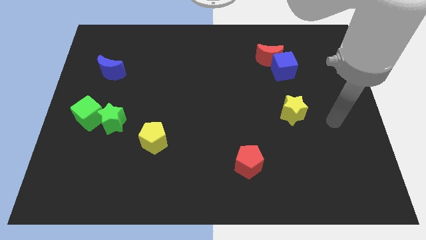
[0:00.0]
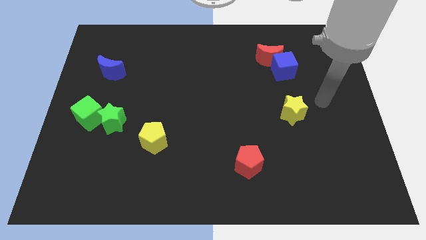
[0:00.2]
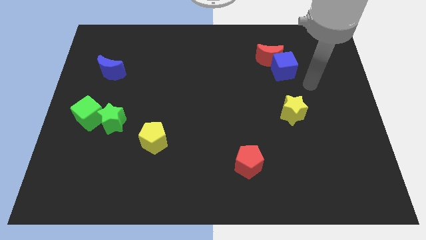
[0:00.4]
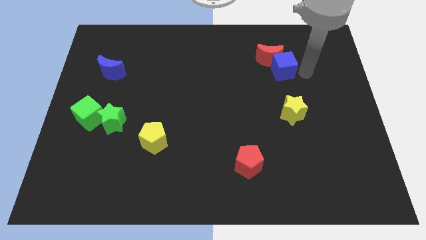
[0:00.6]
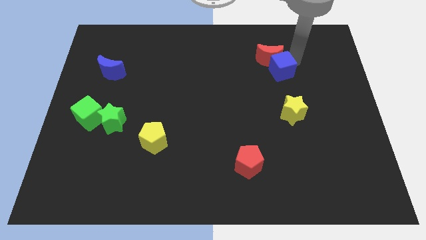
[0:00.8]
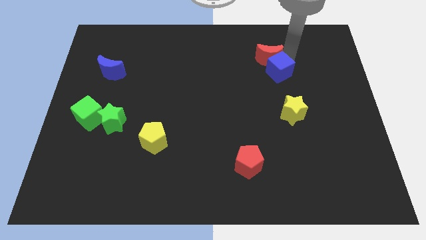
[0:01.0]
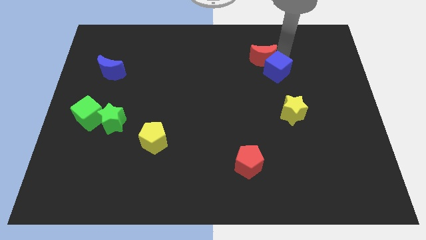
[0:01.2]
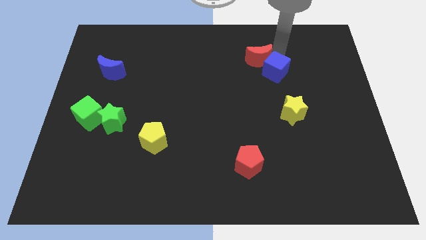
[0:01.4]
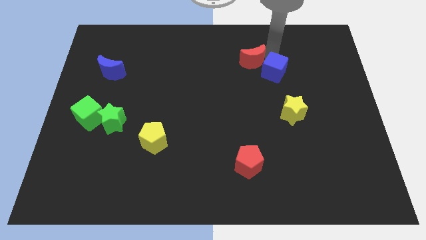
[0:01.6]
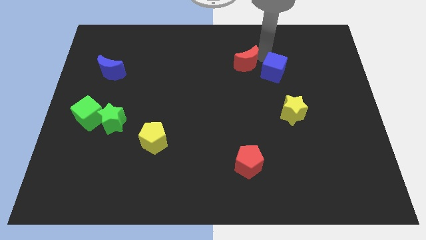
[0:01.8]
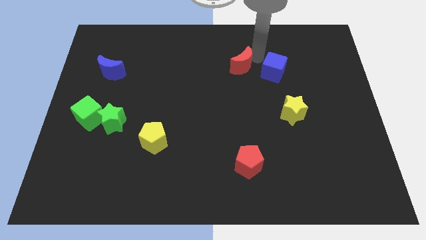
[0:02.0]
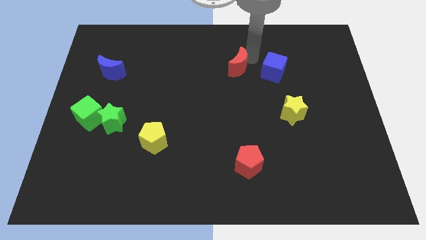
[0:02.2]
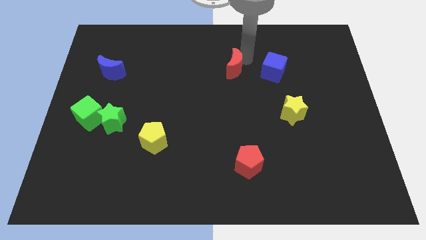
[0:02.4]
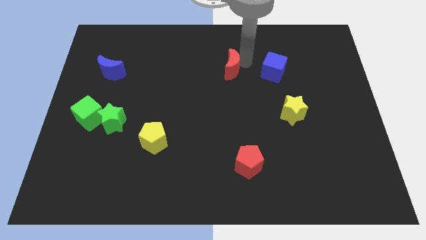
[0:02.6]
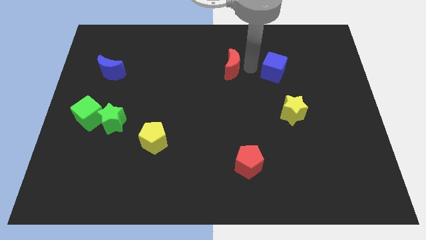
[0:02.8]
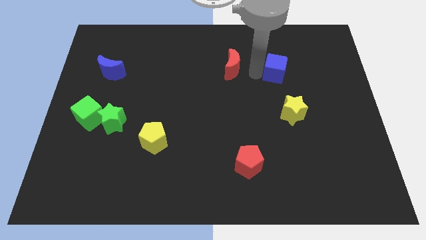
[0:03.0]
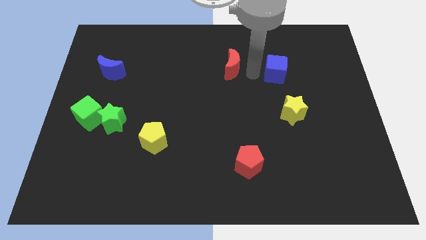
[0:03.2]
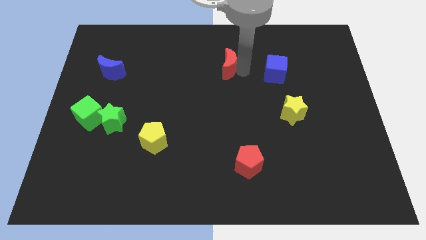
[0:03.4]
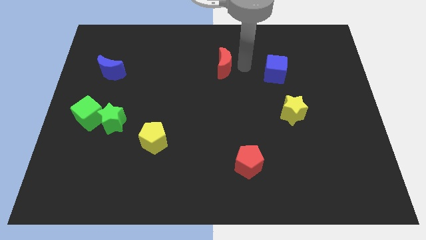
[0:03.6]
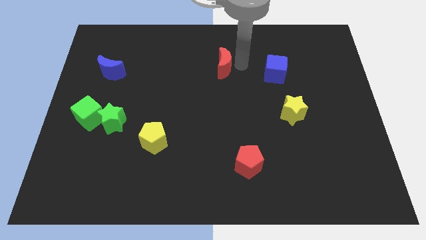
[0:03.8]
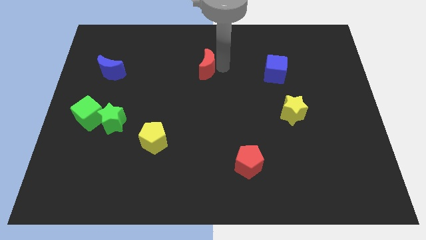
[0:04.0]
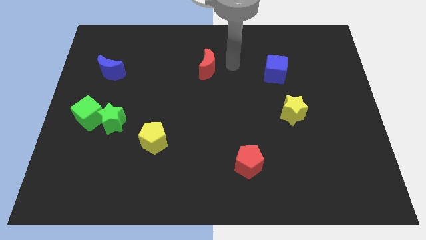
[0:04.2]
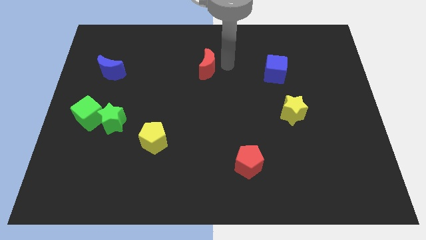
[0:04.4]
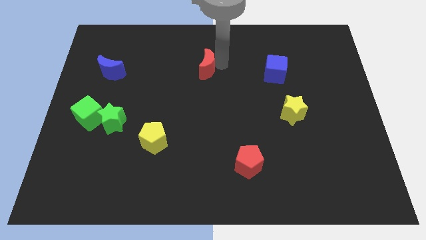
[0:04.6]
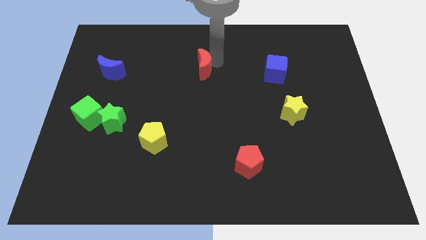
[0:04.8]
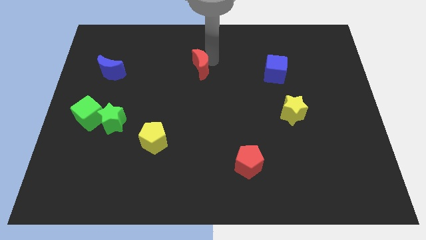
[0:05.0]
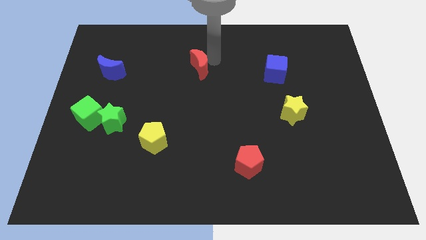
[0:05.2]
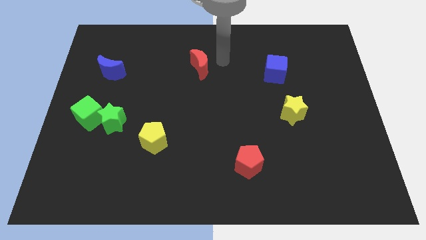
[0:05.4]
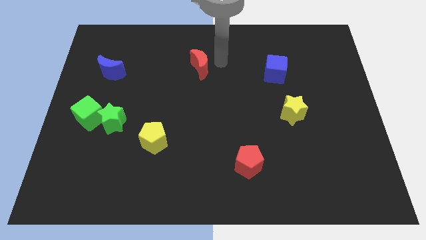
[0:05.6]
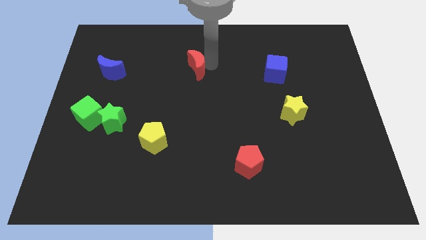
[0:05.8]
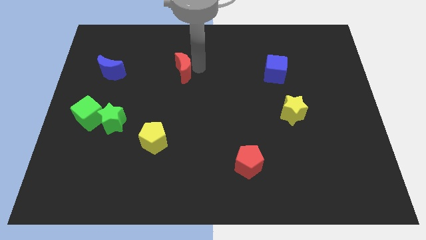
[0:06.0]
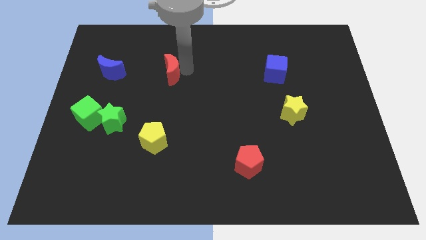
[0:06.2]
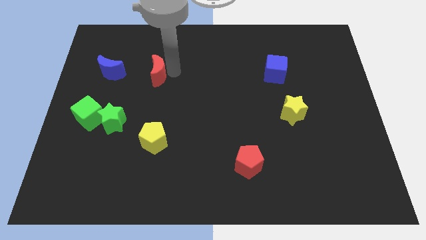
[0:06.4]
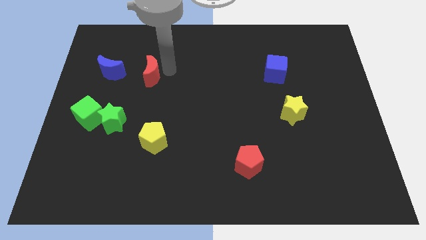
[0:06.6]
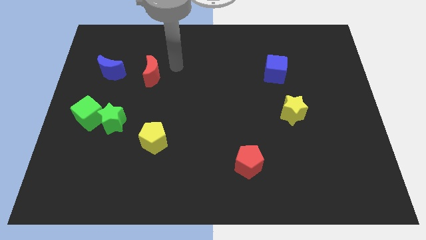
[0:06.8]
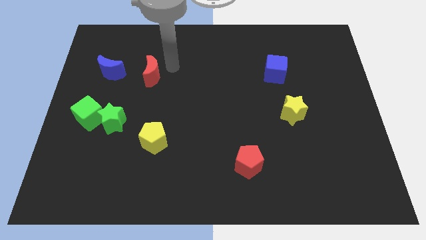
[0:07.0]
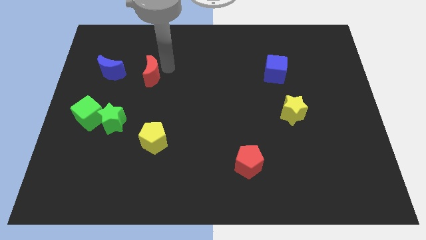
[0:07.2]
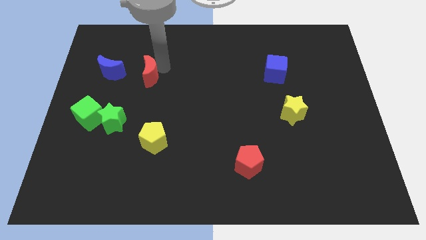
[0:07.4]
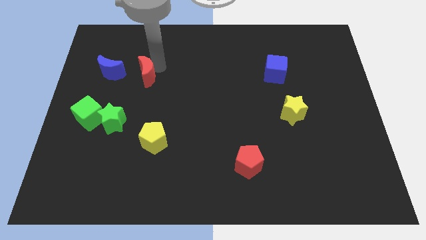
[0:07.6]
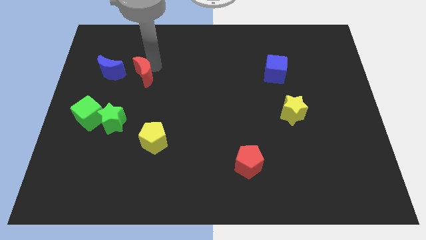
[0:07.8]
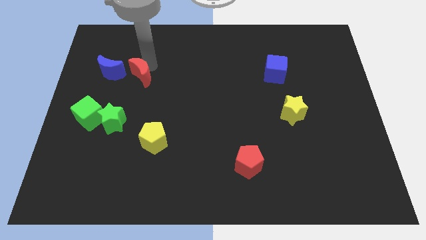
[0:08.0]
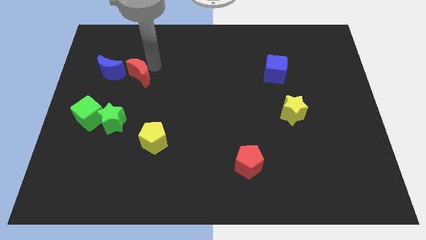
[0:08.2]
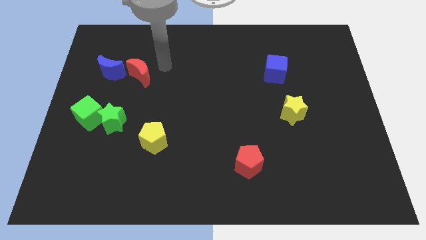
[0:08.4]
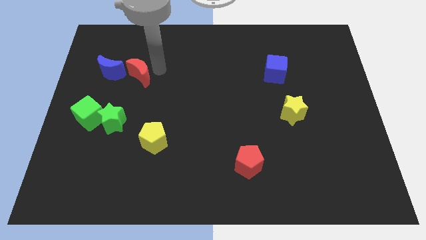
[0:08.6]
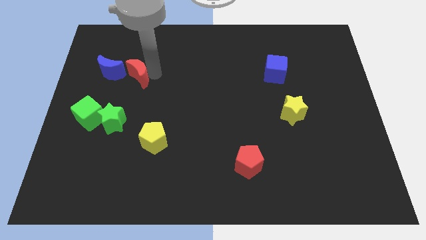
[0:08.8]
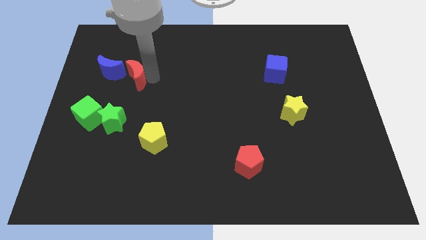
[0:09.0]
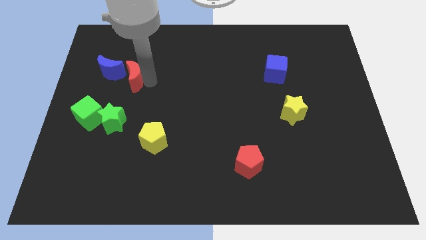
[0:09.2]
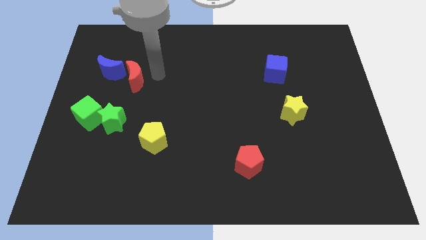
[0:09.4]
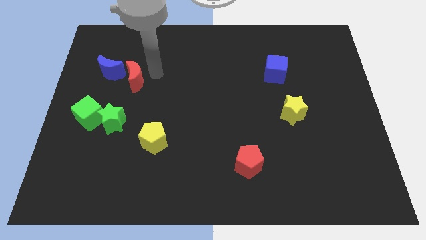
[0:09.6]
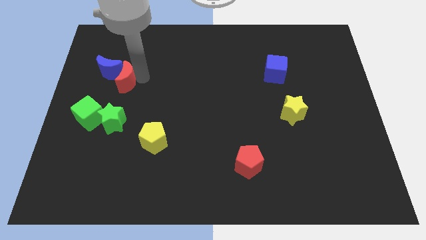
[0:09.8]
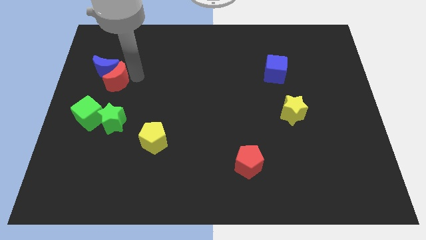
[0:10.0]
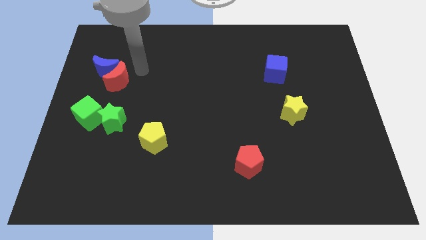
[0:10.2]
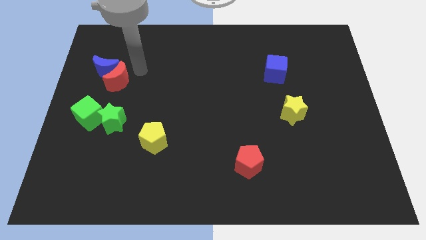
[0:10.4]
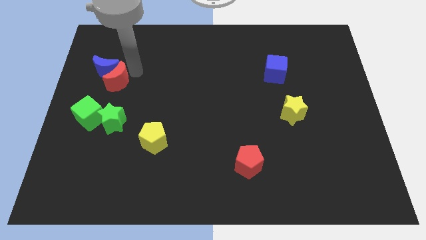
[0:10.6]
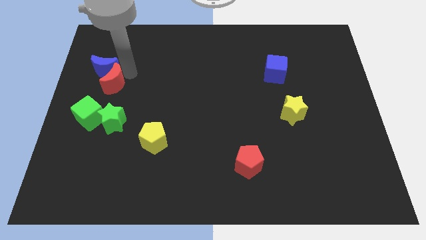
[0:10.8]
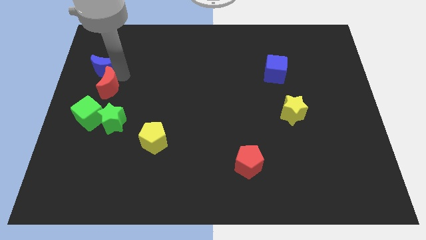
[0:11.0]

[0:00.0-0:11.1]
move the red moon to the left side of the board

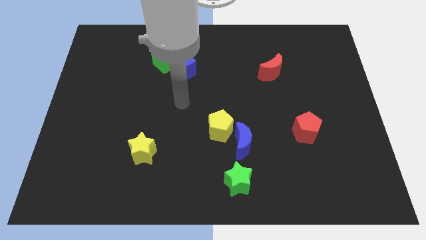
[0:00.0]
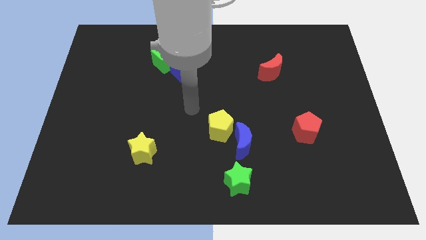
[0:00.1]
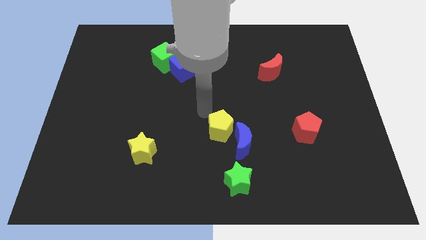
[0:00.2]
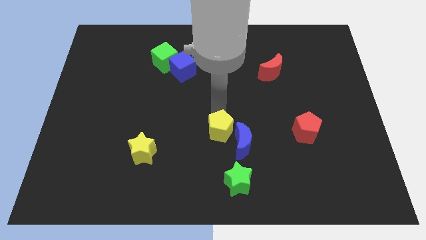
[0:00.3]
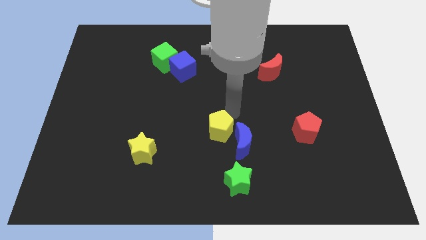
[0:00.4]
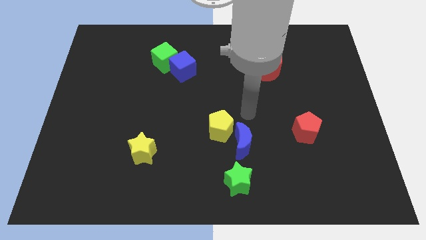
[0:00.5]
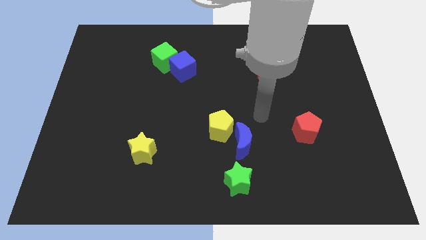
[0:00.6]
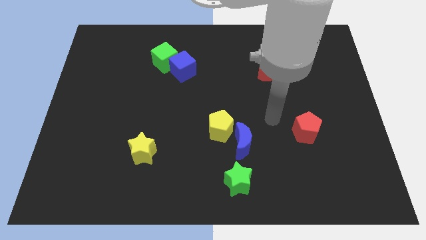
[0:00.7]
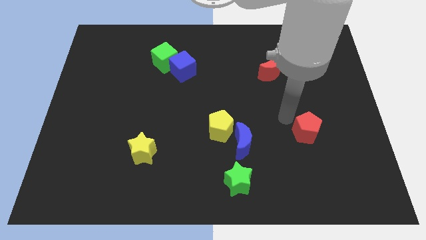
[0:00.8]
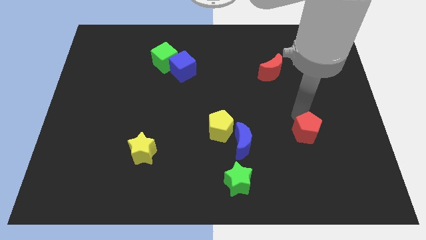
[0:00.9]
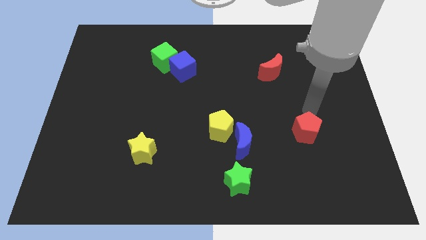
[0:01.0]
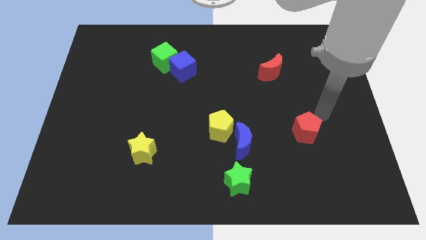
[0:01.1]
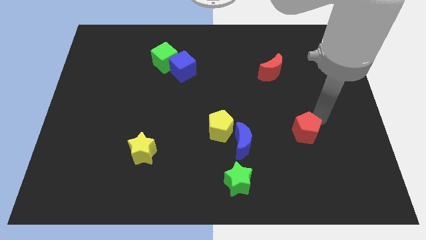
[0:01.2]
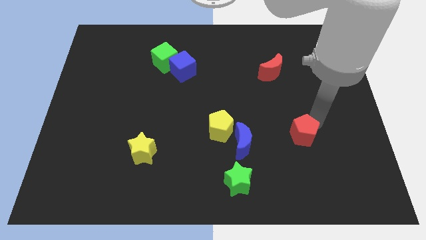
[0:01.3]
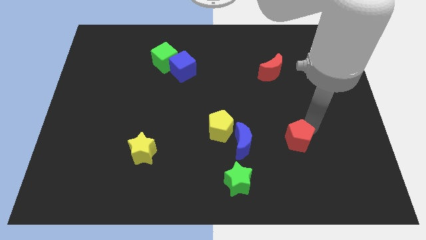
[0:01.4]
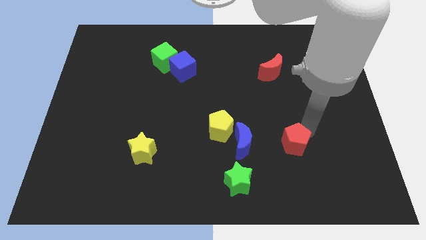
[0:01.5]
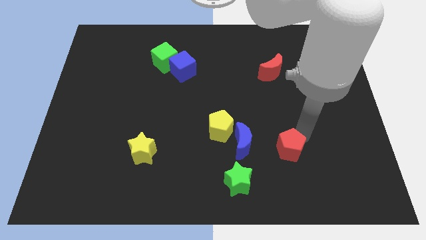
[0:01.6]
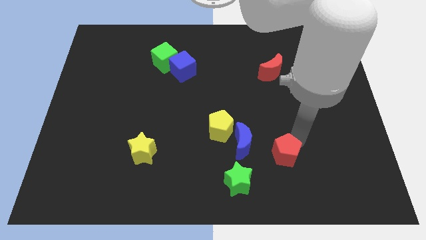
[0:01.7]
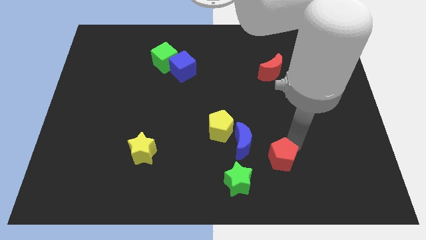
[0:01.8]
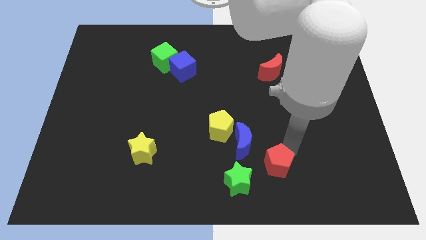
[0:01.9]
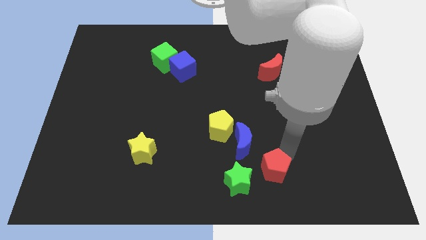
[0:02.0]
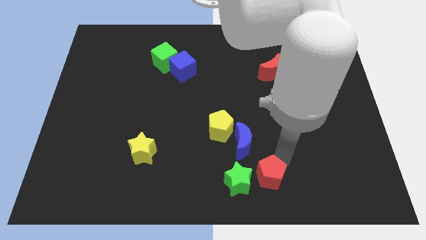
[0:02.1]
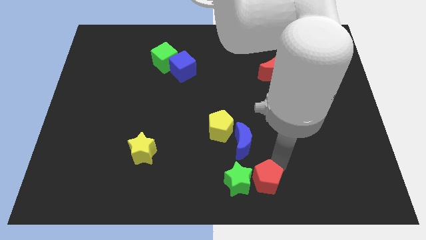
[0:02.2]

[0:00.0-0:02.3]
slide the red pentagon to the bottom side
